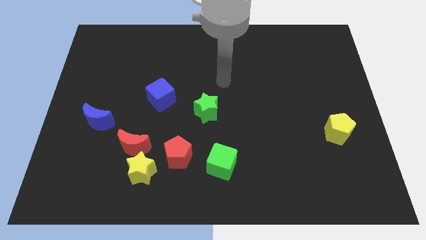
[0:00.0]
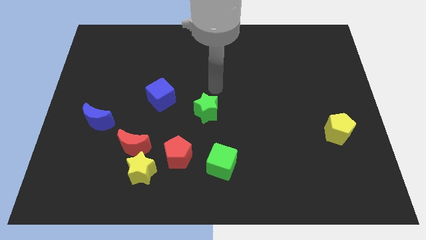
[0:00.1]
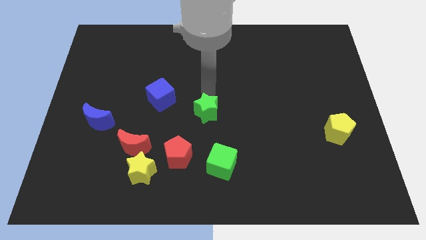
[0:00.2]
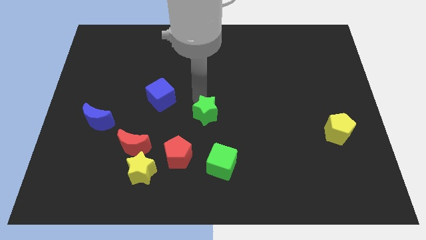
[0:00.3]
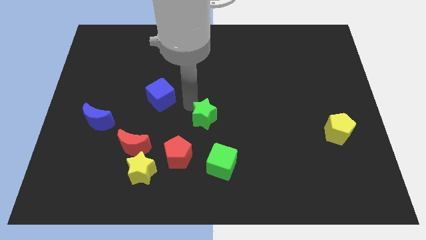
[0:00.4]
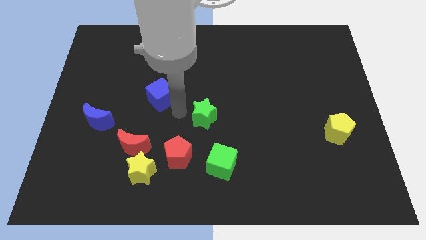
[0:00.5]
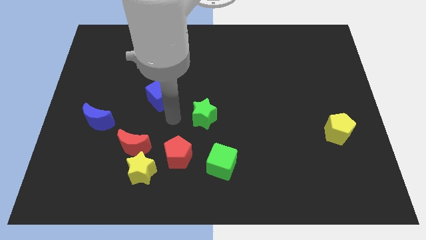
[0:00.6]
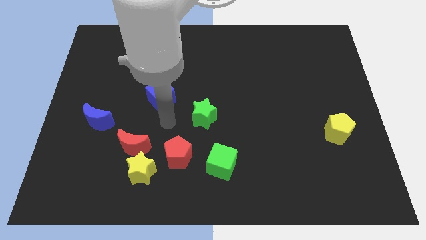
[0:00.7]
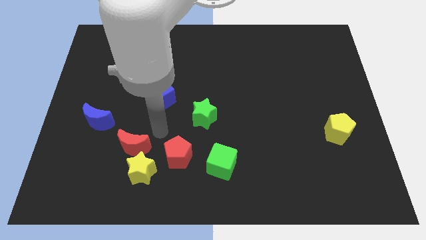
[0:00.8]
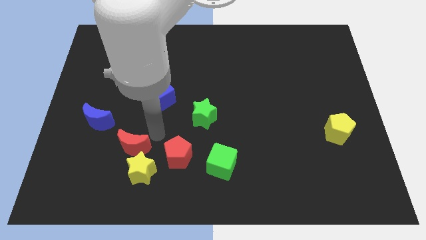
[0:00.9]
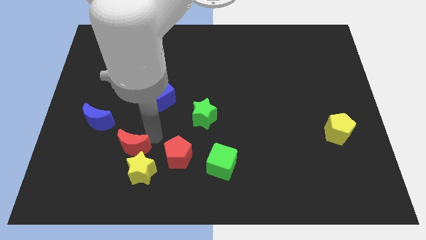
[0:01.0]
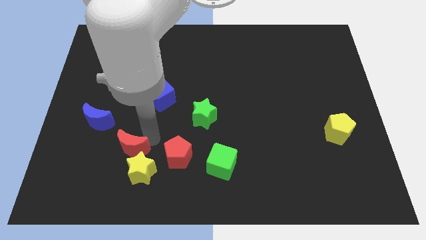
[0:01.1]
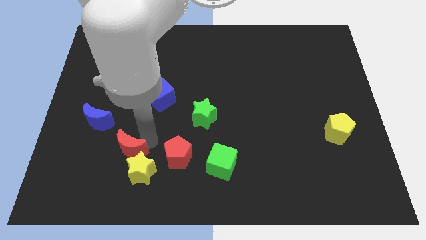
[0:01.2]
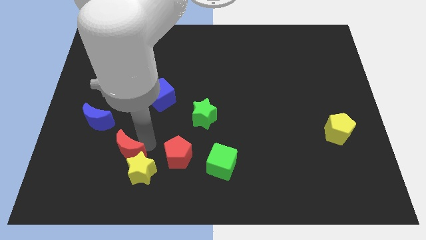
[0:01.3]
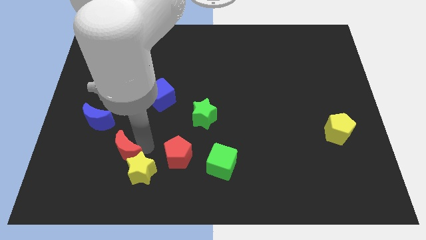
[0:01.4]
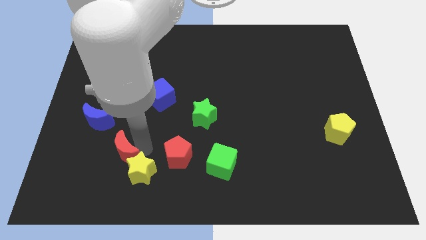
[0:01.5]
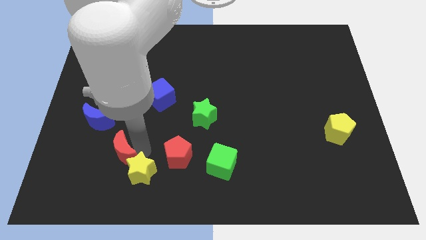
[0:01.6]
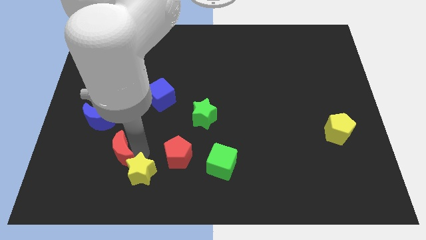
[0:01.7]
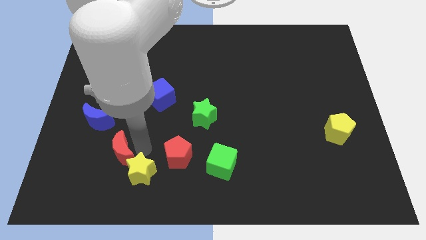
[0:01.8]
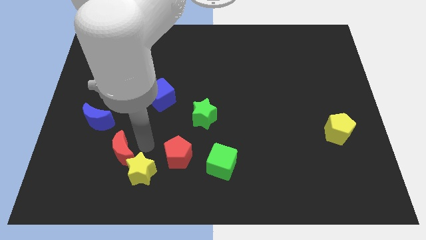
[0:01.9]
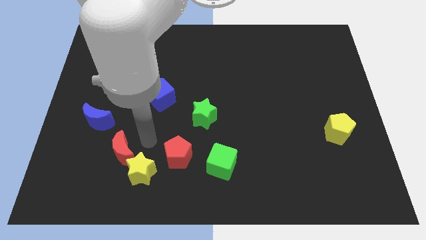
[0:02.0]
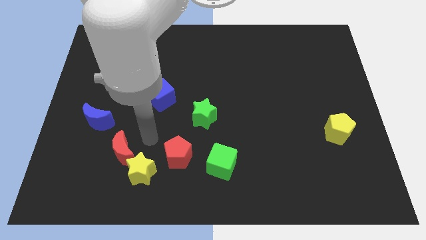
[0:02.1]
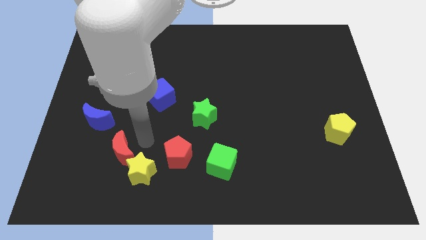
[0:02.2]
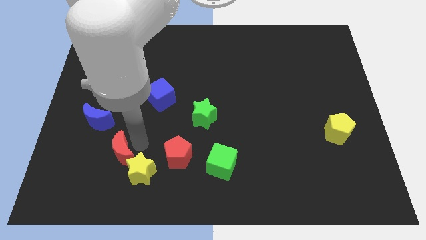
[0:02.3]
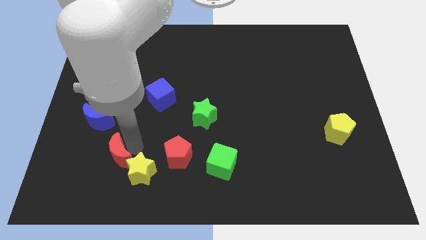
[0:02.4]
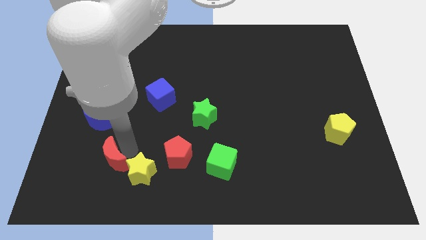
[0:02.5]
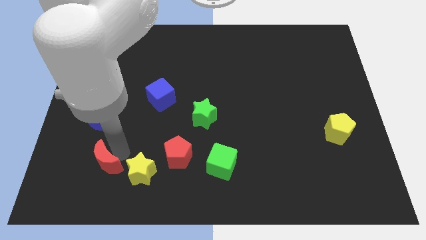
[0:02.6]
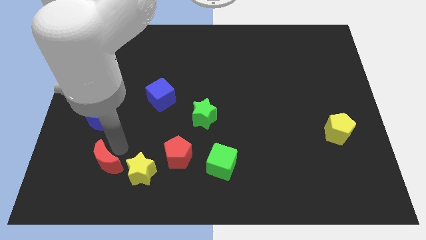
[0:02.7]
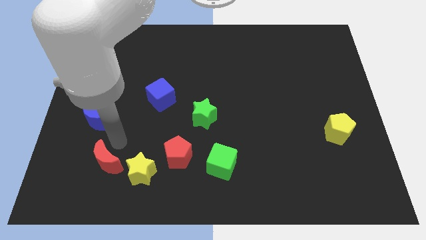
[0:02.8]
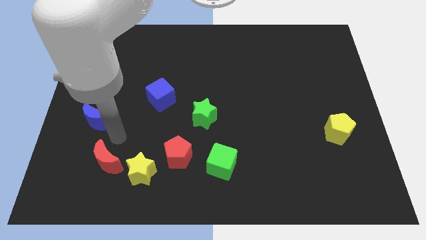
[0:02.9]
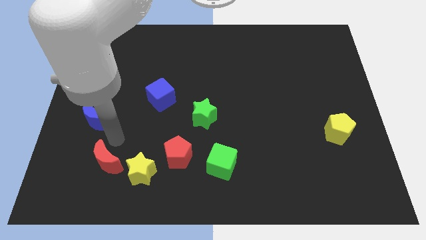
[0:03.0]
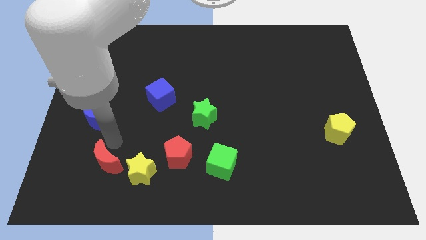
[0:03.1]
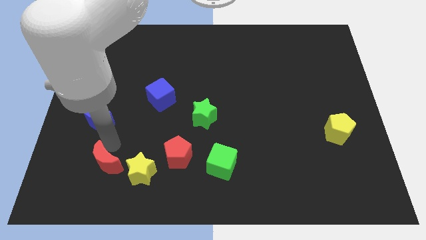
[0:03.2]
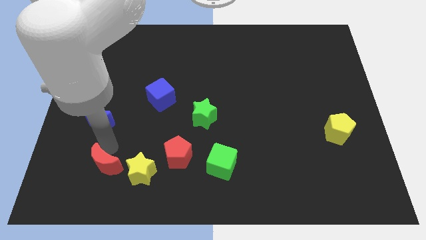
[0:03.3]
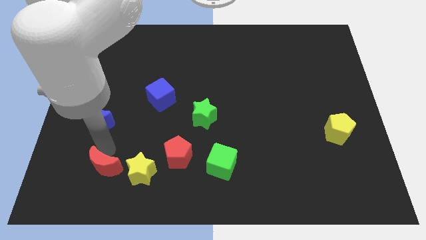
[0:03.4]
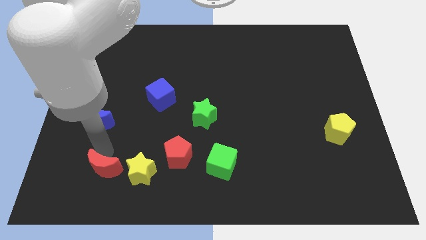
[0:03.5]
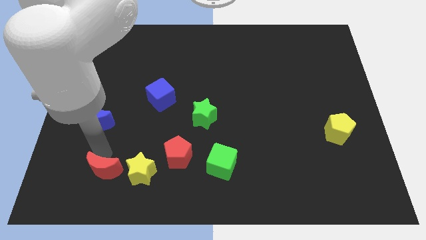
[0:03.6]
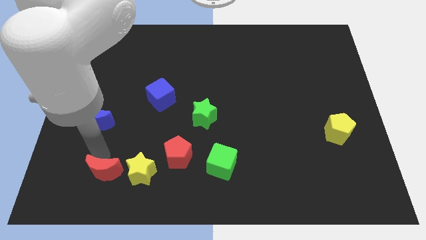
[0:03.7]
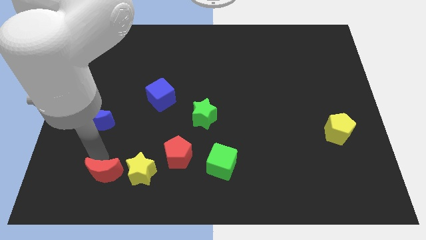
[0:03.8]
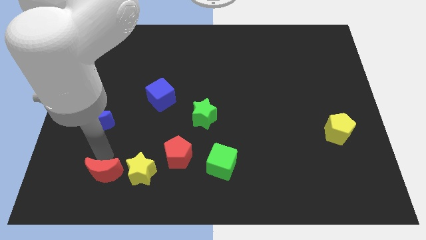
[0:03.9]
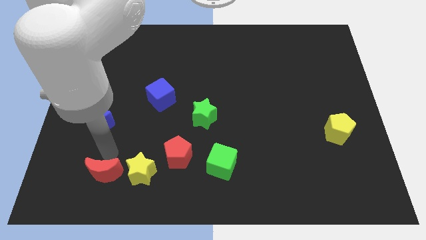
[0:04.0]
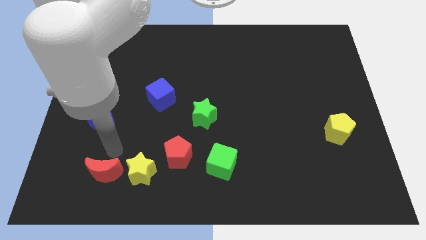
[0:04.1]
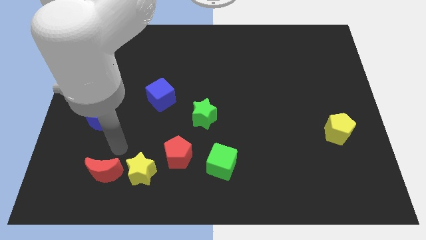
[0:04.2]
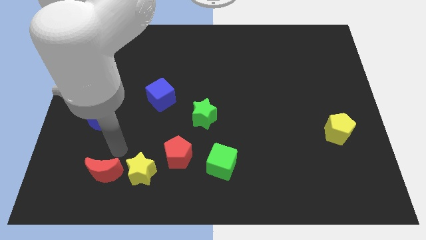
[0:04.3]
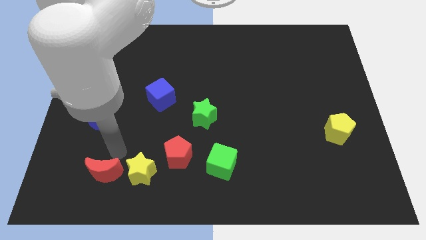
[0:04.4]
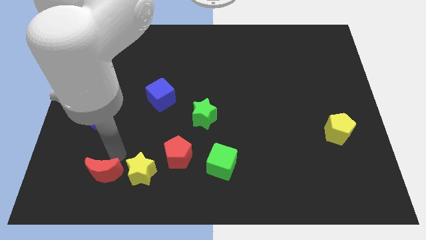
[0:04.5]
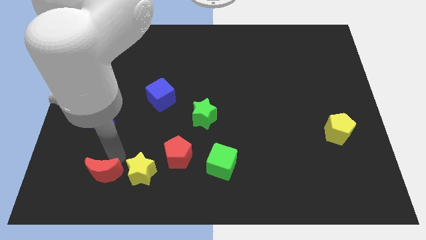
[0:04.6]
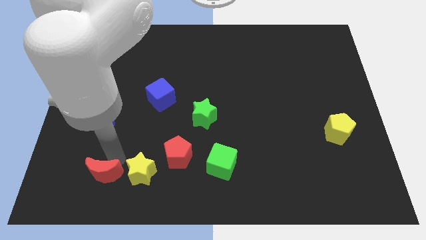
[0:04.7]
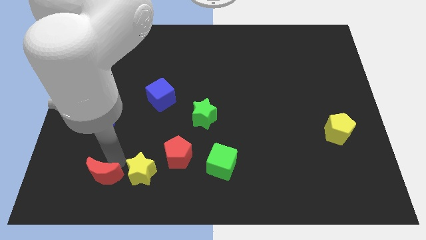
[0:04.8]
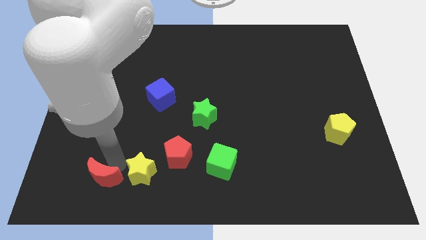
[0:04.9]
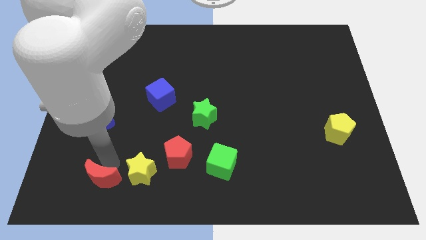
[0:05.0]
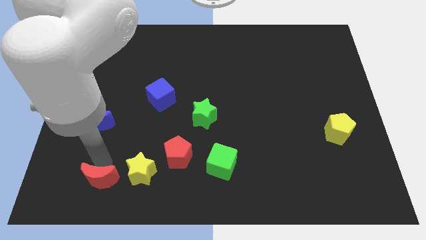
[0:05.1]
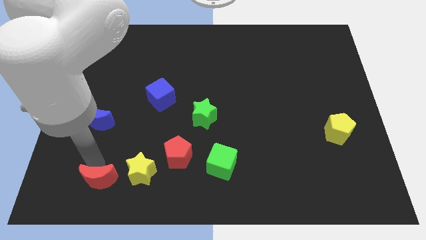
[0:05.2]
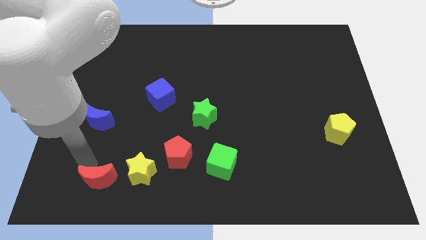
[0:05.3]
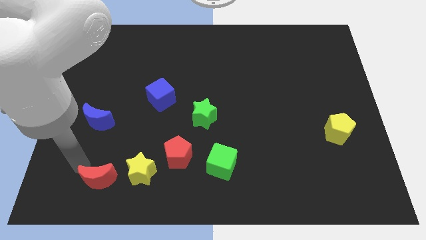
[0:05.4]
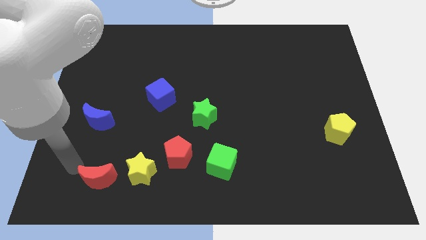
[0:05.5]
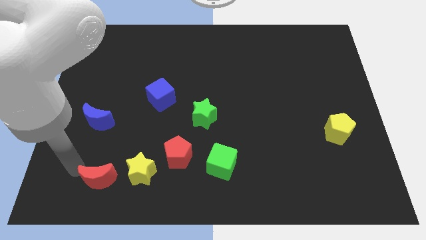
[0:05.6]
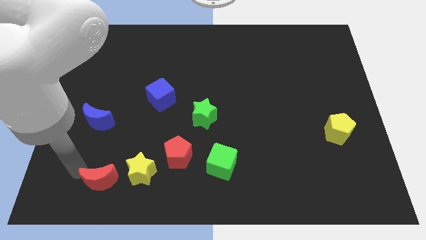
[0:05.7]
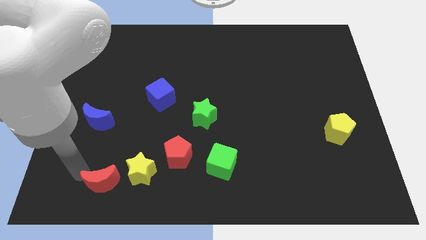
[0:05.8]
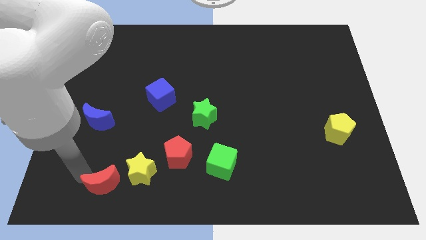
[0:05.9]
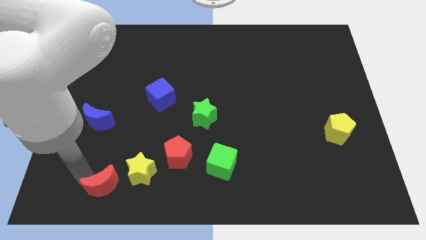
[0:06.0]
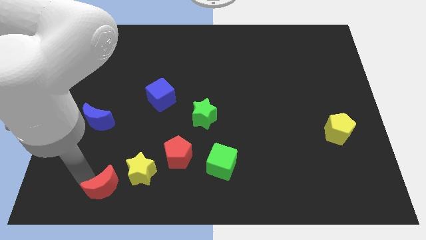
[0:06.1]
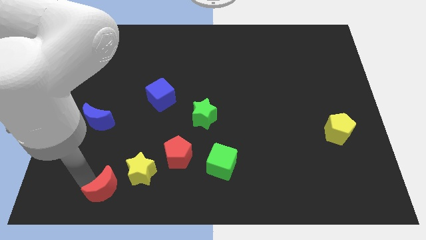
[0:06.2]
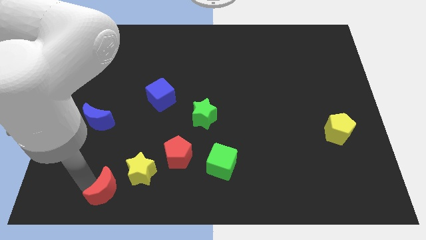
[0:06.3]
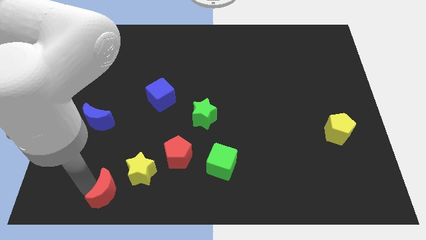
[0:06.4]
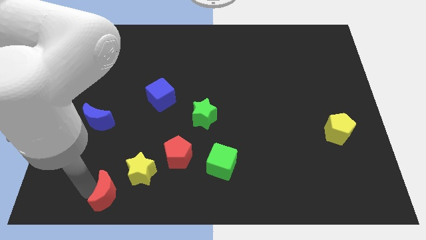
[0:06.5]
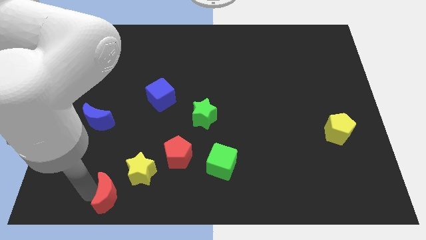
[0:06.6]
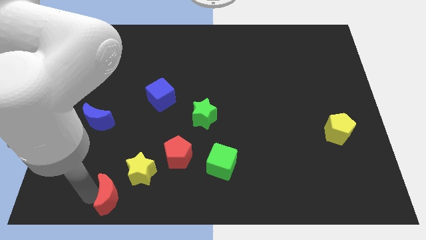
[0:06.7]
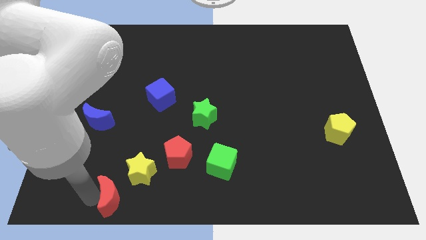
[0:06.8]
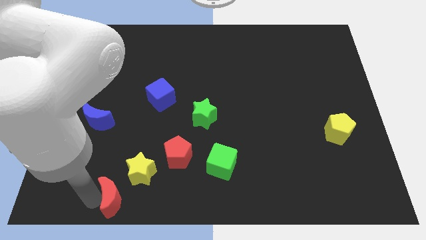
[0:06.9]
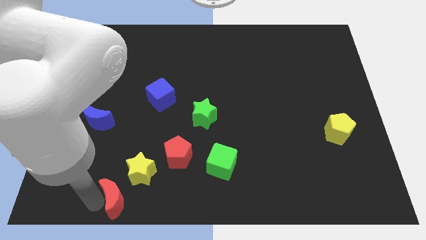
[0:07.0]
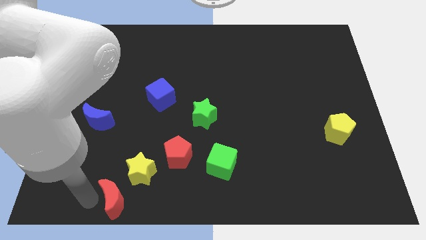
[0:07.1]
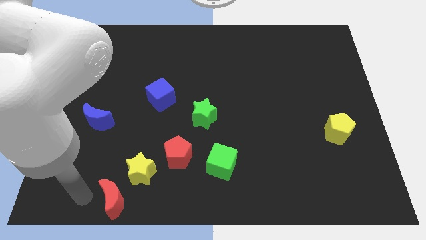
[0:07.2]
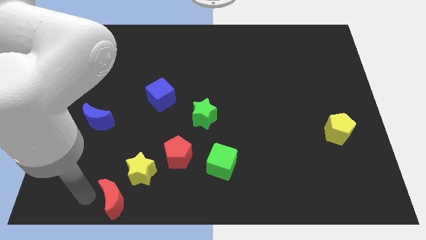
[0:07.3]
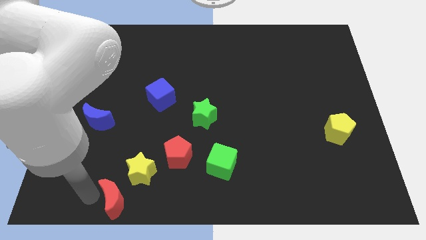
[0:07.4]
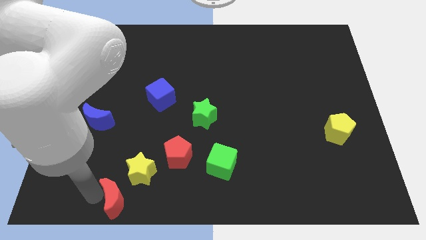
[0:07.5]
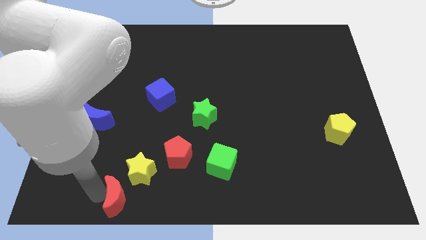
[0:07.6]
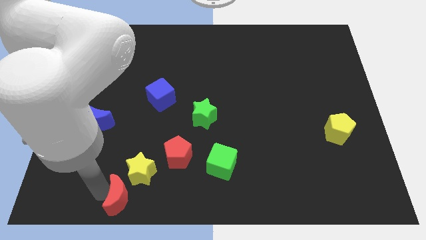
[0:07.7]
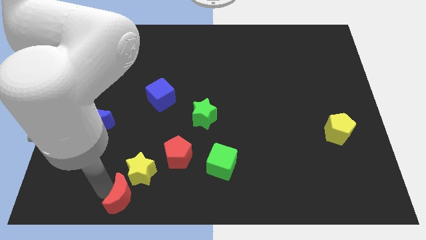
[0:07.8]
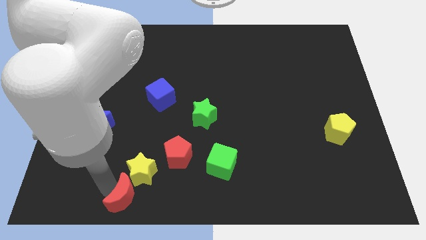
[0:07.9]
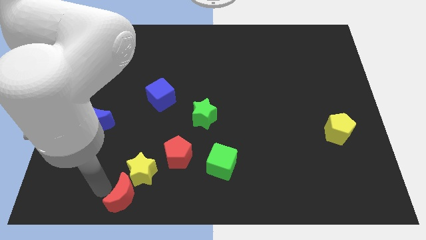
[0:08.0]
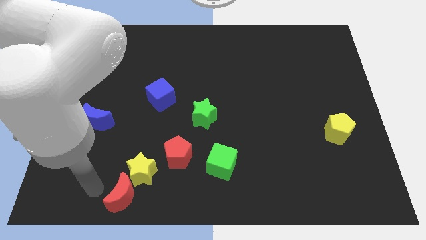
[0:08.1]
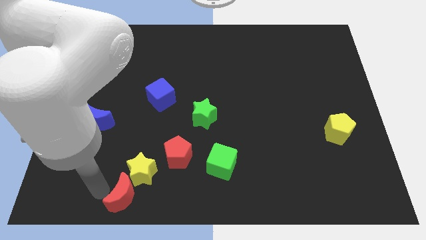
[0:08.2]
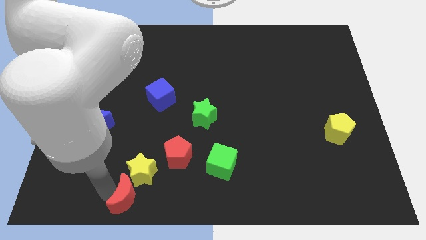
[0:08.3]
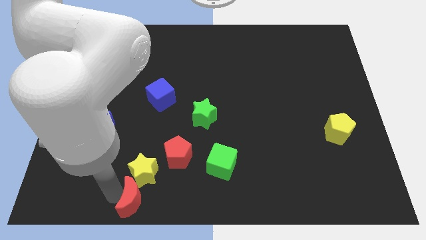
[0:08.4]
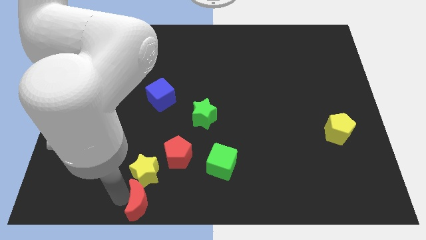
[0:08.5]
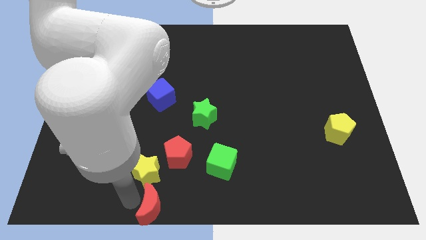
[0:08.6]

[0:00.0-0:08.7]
put the red moon to the bottom side
